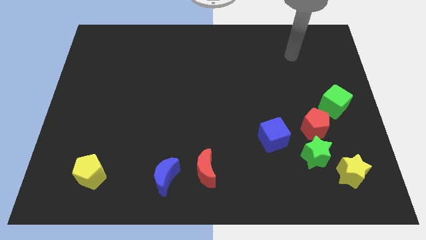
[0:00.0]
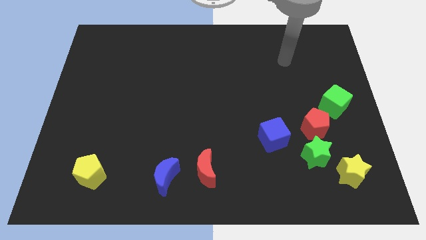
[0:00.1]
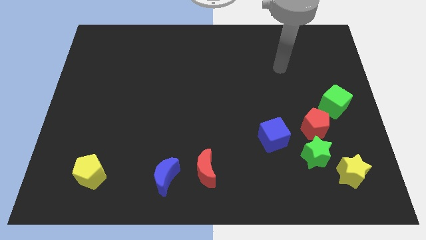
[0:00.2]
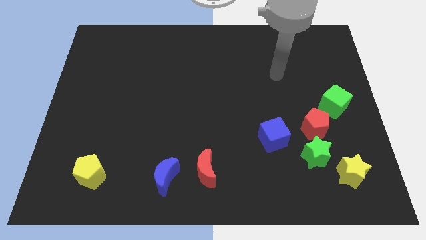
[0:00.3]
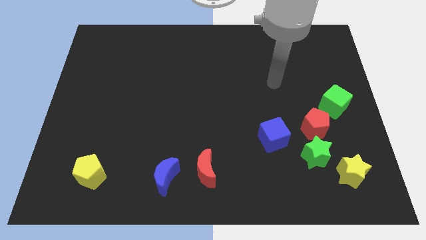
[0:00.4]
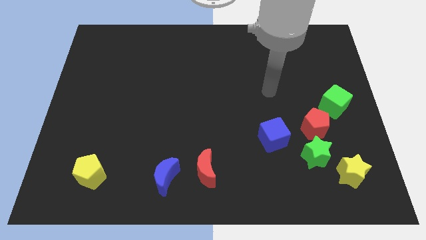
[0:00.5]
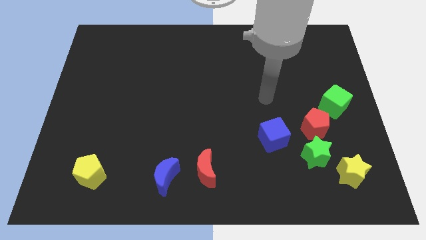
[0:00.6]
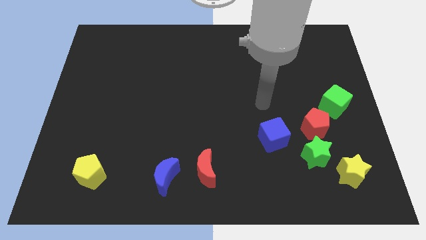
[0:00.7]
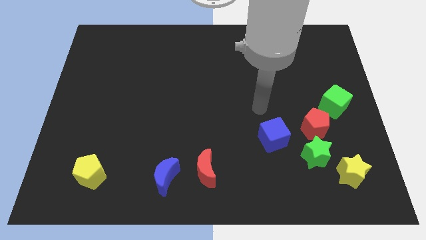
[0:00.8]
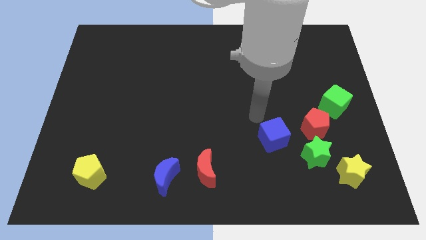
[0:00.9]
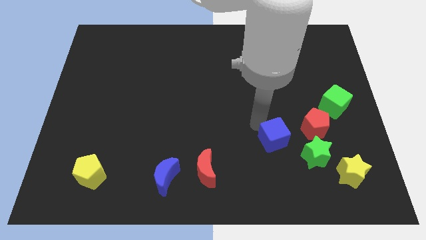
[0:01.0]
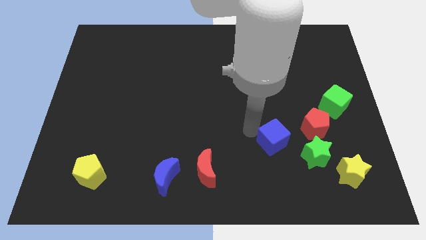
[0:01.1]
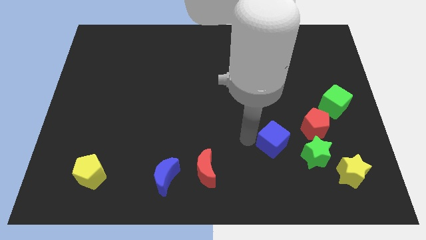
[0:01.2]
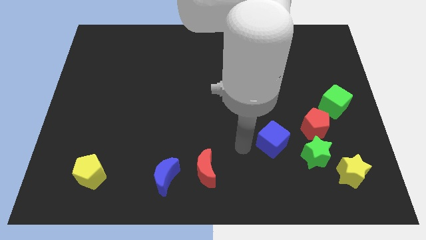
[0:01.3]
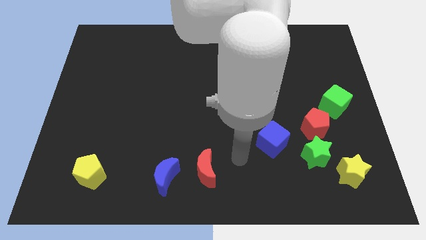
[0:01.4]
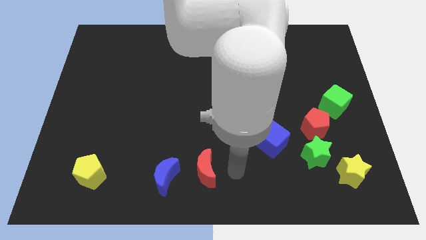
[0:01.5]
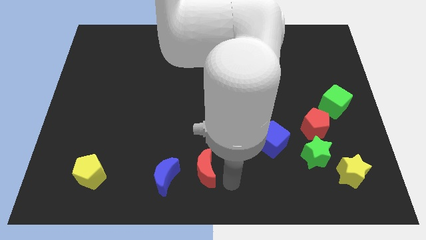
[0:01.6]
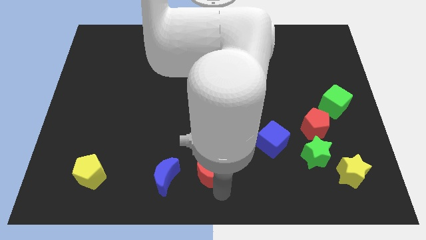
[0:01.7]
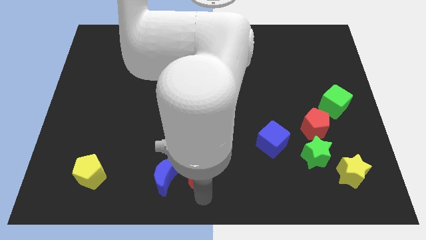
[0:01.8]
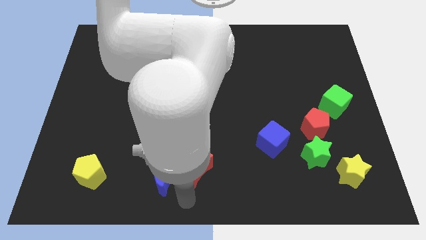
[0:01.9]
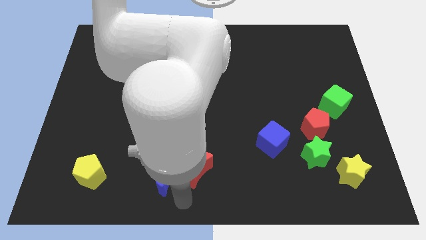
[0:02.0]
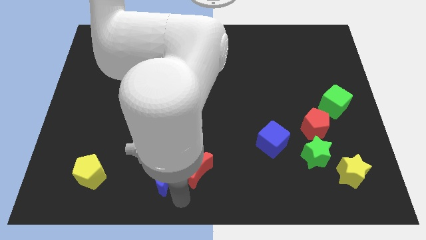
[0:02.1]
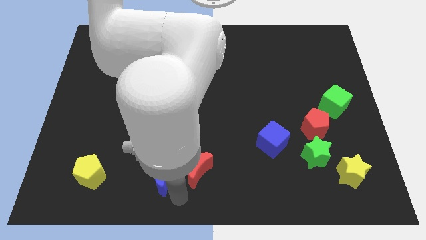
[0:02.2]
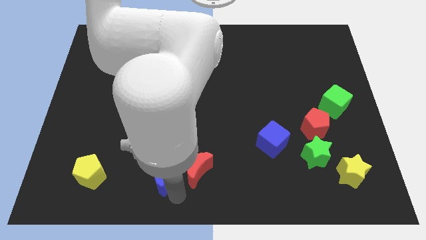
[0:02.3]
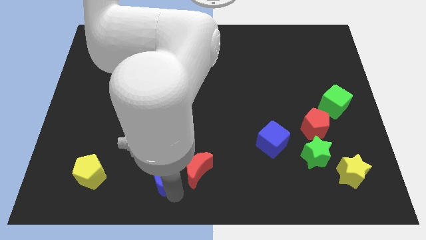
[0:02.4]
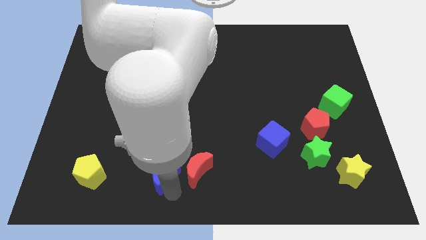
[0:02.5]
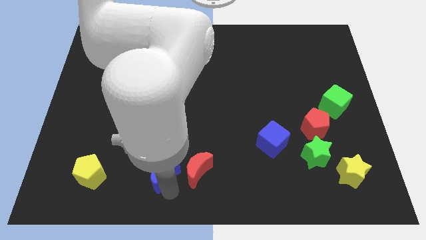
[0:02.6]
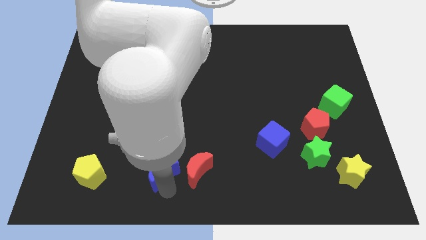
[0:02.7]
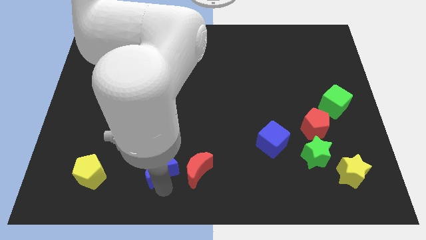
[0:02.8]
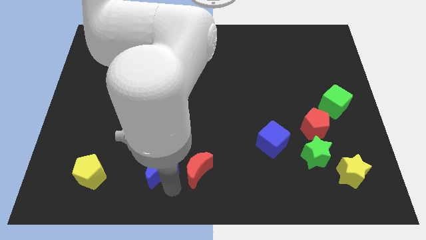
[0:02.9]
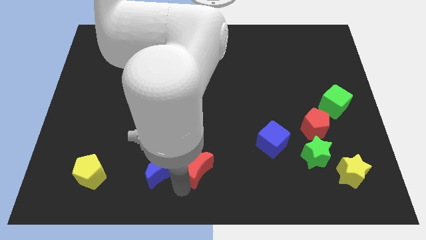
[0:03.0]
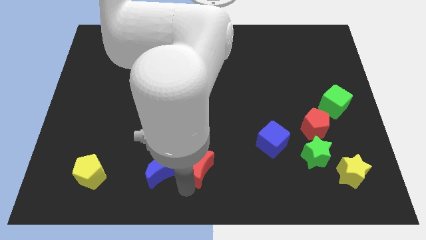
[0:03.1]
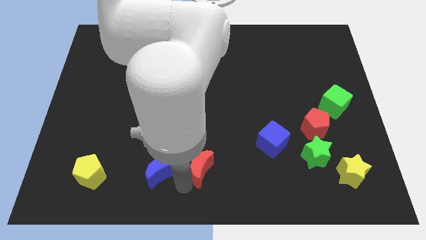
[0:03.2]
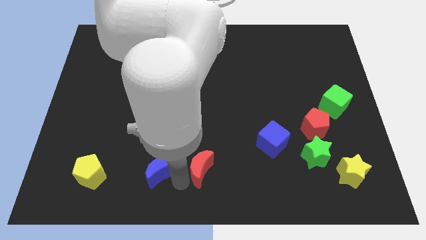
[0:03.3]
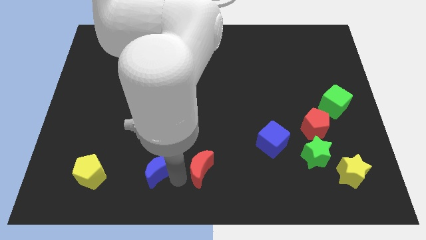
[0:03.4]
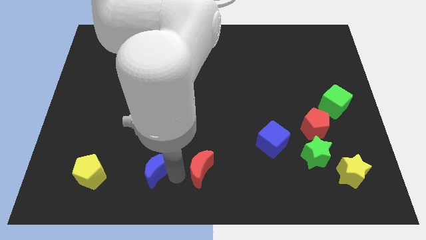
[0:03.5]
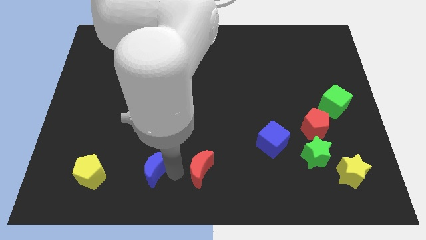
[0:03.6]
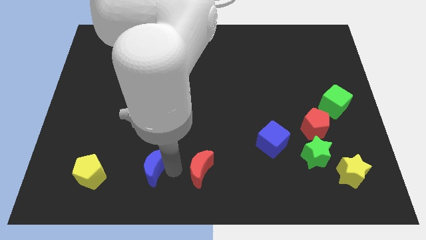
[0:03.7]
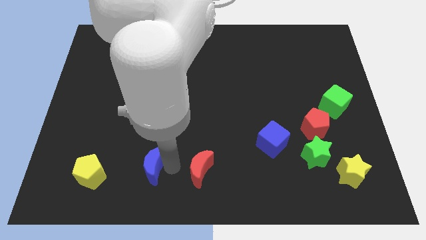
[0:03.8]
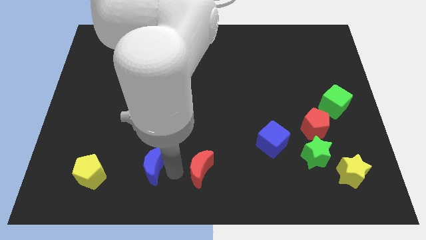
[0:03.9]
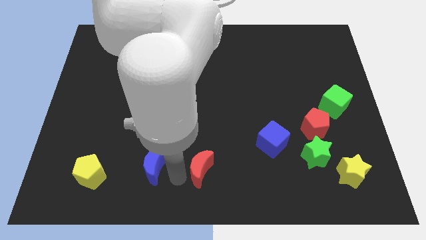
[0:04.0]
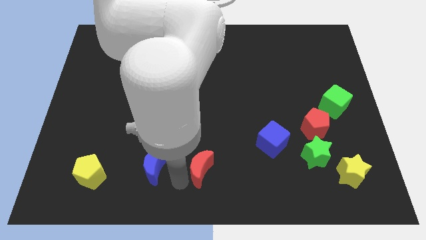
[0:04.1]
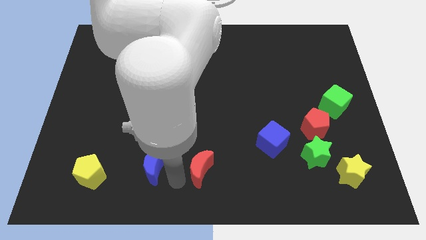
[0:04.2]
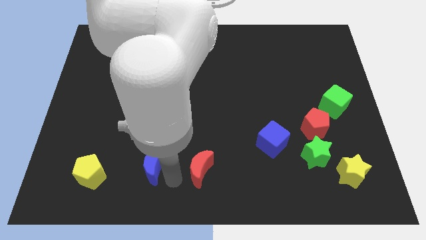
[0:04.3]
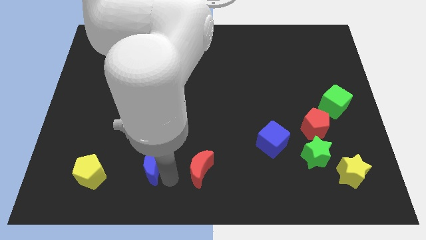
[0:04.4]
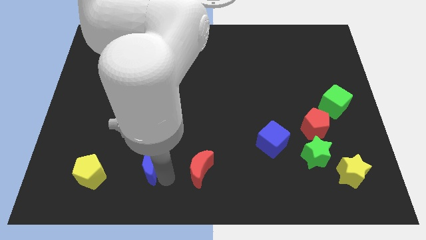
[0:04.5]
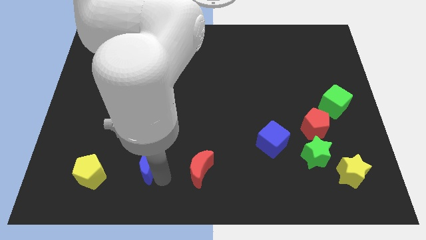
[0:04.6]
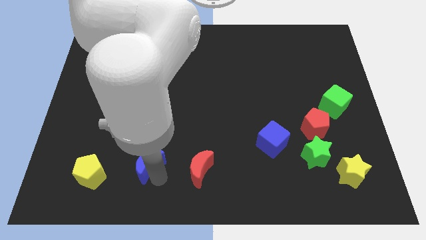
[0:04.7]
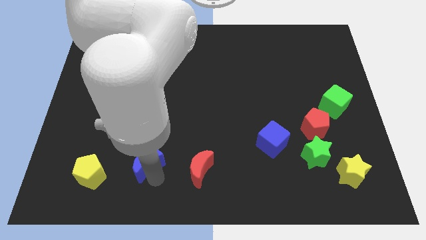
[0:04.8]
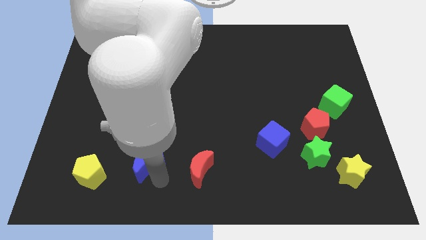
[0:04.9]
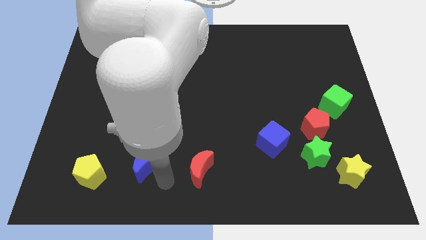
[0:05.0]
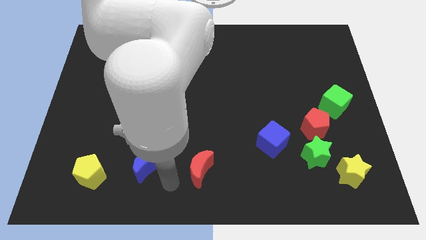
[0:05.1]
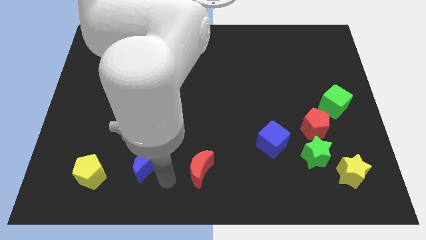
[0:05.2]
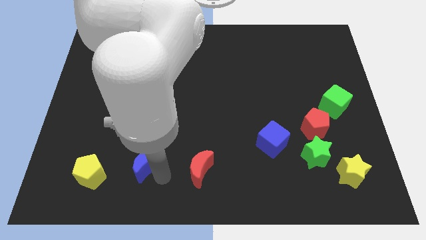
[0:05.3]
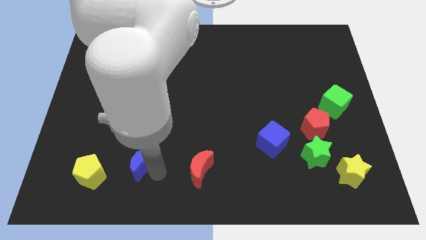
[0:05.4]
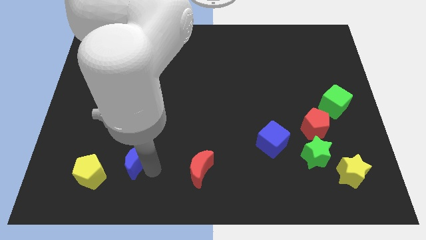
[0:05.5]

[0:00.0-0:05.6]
slightly slide the blue moon diagonally upwards and left

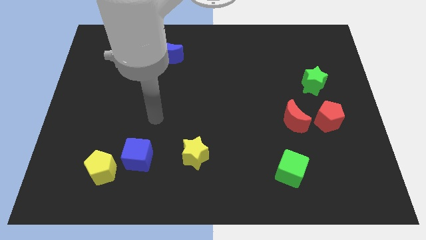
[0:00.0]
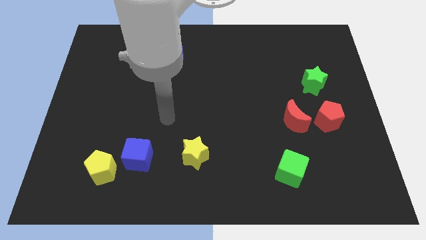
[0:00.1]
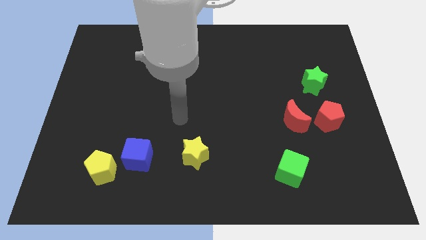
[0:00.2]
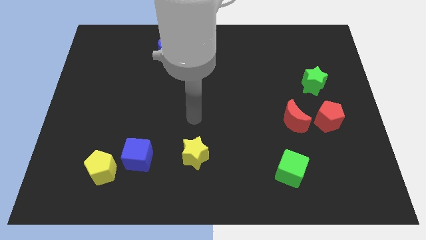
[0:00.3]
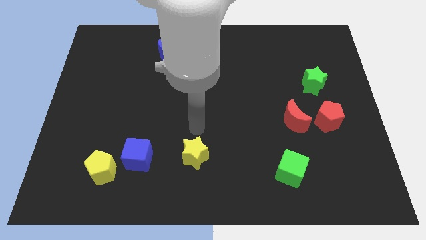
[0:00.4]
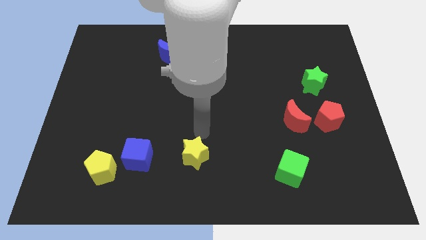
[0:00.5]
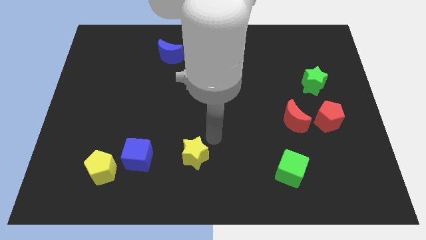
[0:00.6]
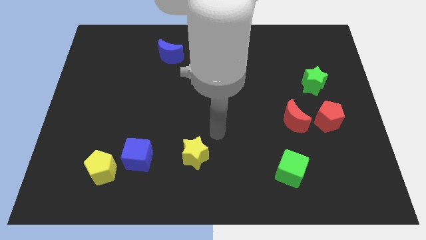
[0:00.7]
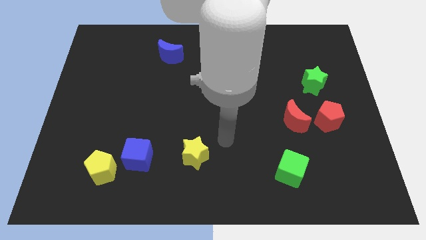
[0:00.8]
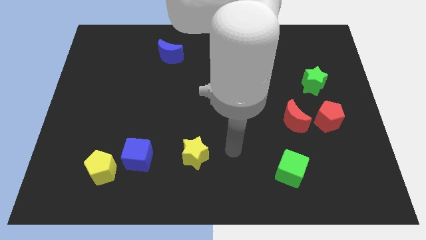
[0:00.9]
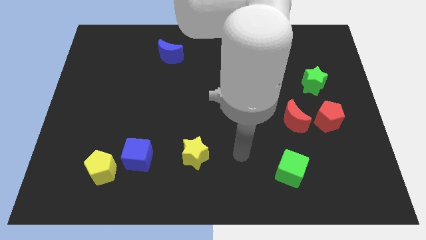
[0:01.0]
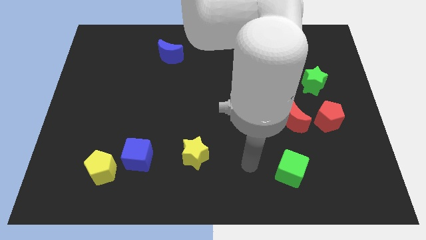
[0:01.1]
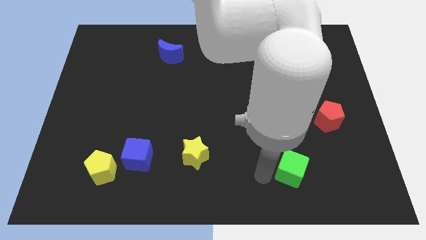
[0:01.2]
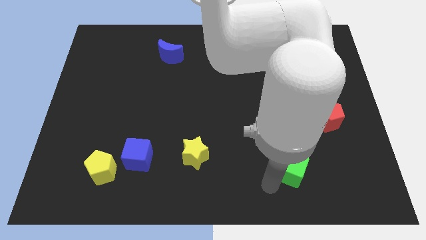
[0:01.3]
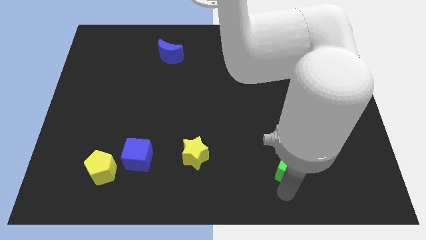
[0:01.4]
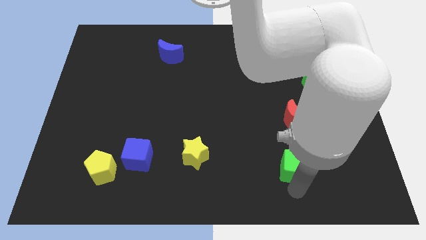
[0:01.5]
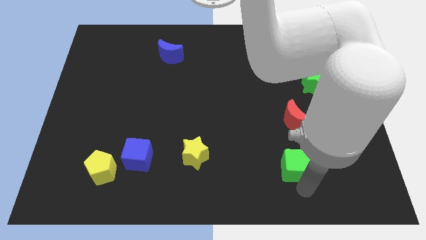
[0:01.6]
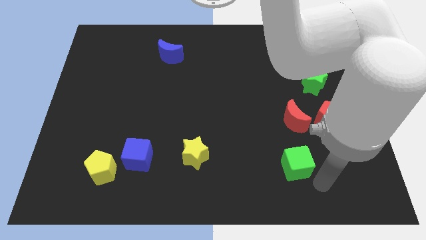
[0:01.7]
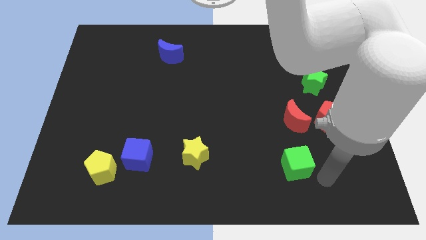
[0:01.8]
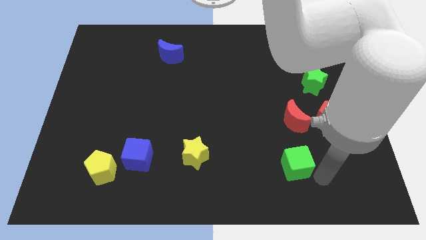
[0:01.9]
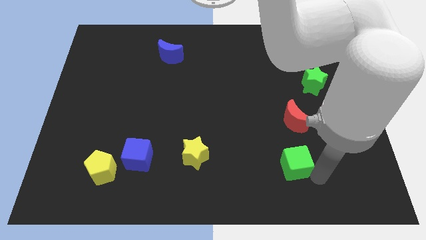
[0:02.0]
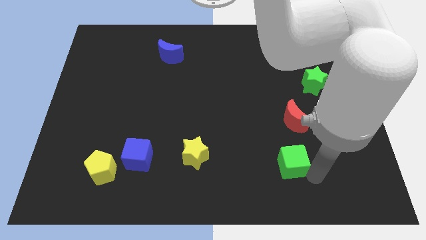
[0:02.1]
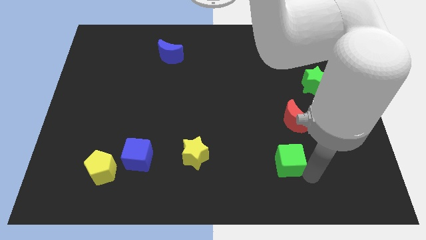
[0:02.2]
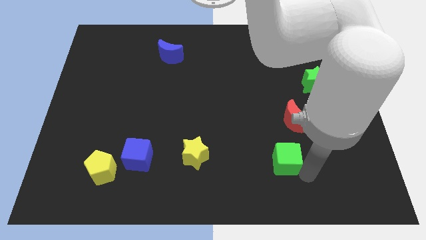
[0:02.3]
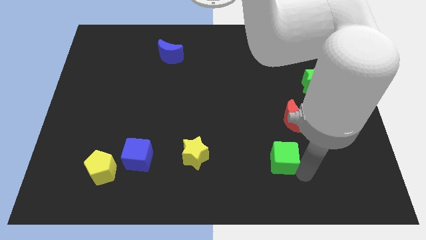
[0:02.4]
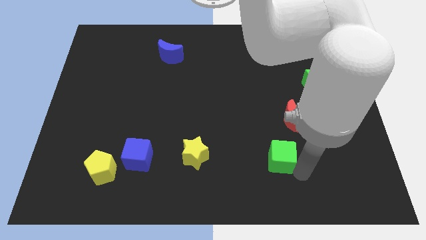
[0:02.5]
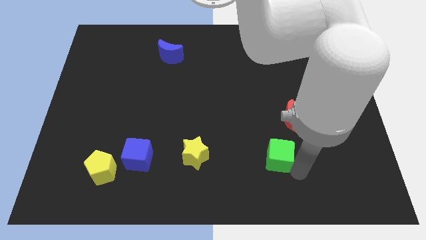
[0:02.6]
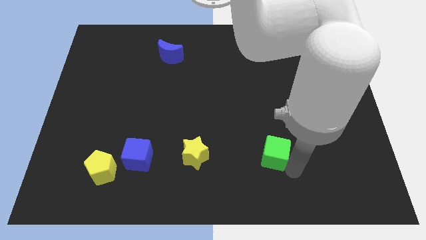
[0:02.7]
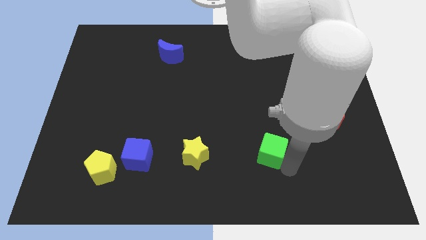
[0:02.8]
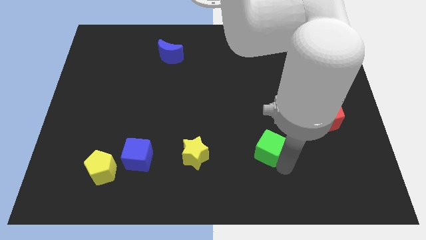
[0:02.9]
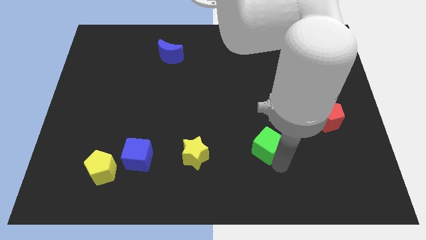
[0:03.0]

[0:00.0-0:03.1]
slide the green cube diagonally upwards and left a bit
